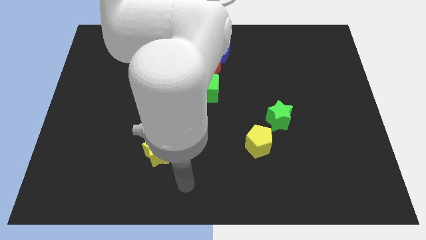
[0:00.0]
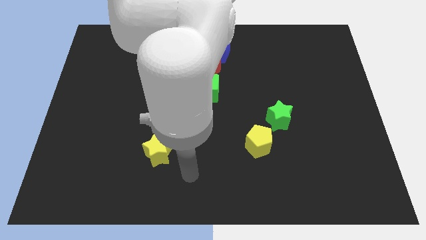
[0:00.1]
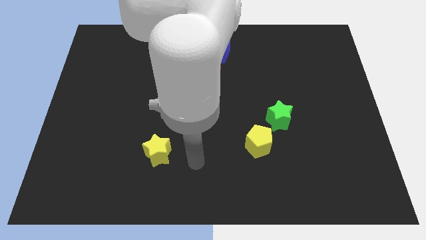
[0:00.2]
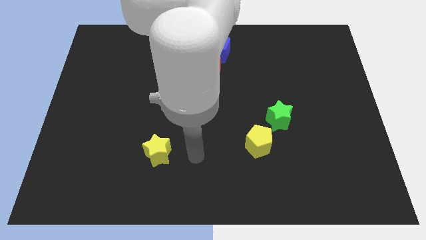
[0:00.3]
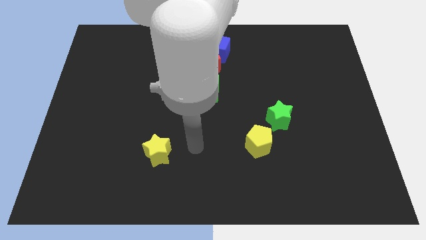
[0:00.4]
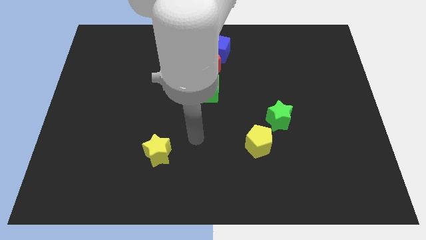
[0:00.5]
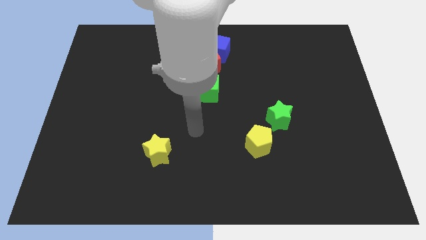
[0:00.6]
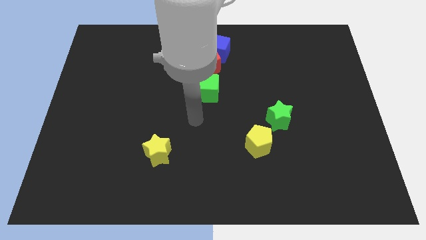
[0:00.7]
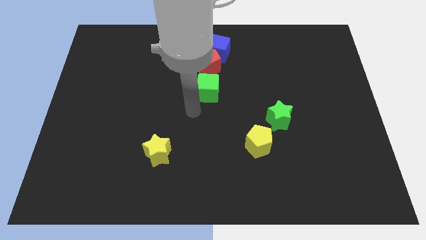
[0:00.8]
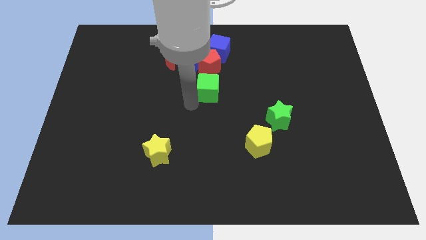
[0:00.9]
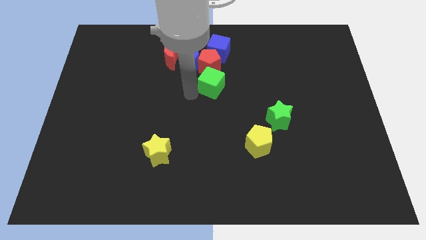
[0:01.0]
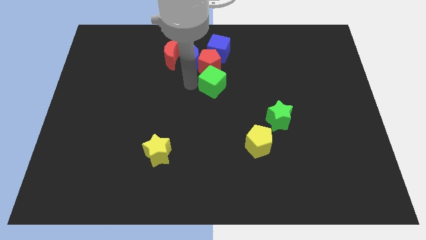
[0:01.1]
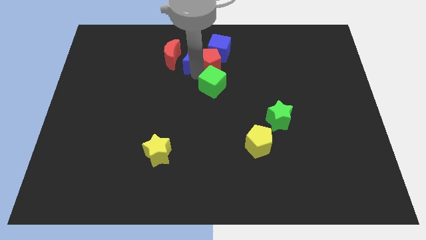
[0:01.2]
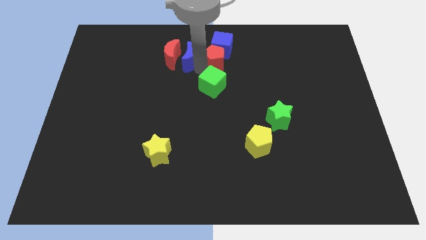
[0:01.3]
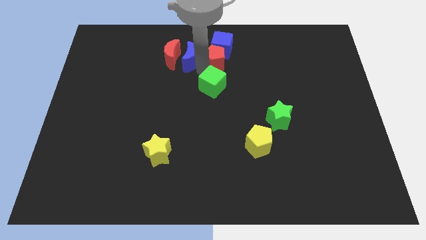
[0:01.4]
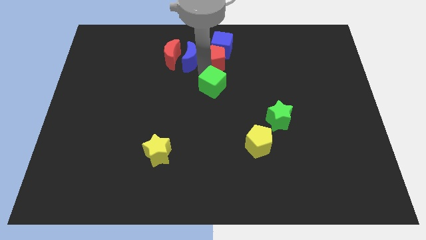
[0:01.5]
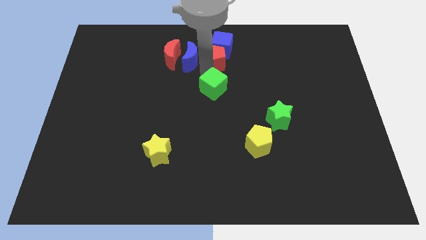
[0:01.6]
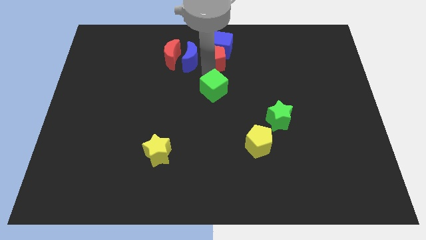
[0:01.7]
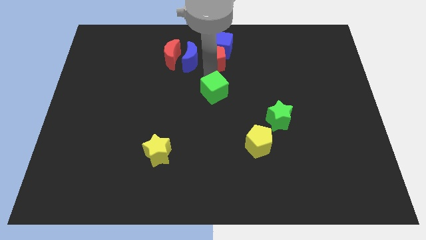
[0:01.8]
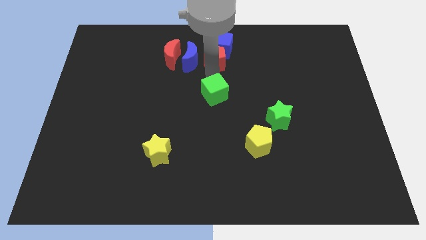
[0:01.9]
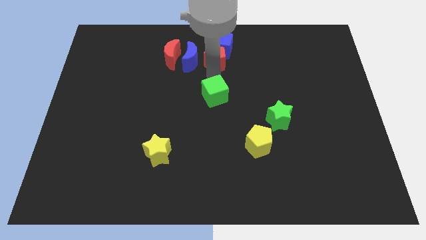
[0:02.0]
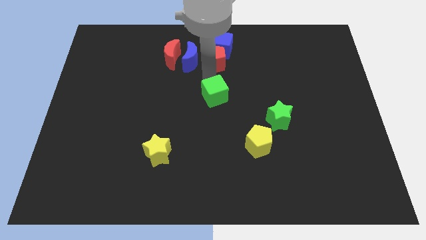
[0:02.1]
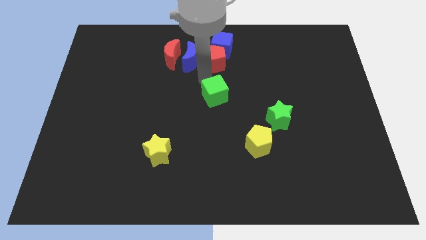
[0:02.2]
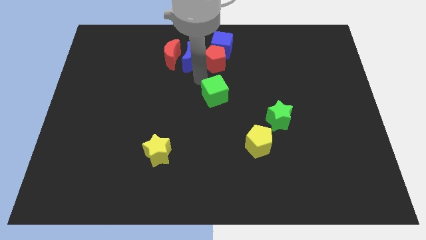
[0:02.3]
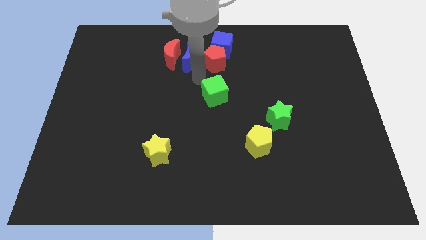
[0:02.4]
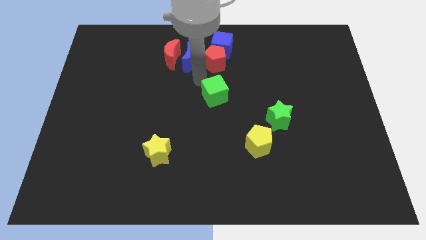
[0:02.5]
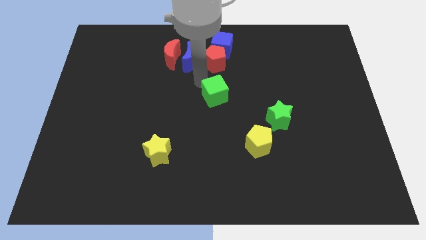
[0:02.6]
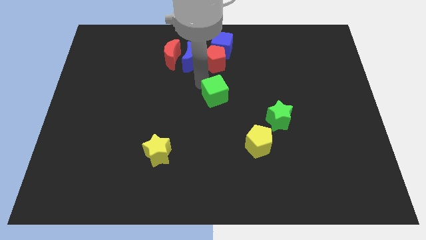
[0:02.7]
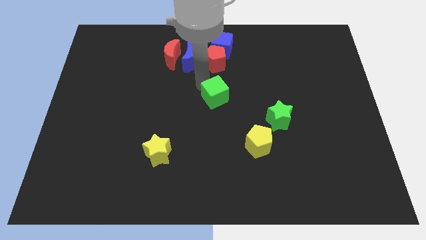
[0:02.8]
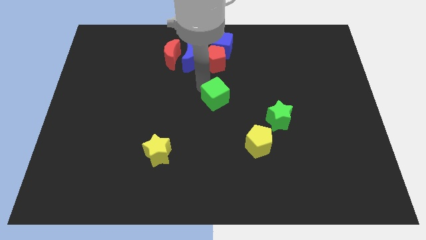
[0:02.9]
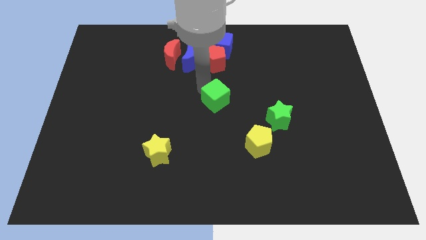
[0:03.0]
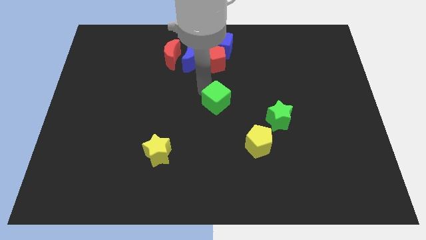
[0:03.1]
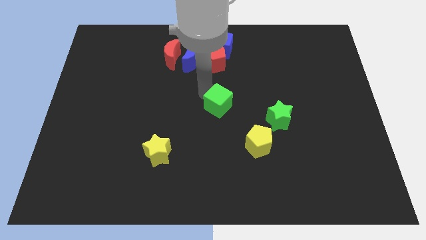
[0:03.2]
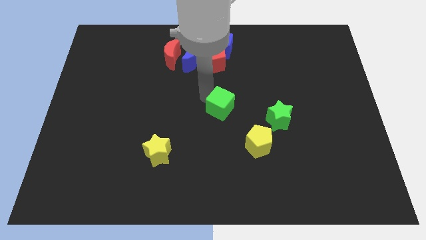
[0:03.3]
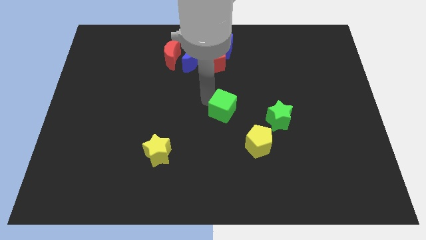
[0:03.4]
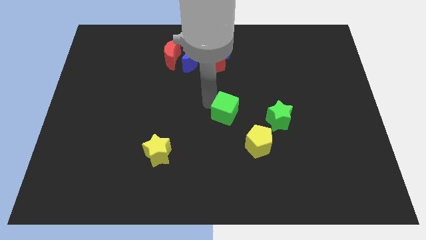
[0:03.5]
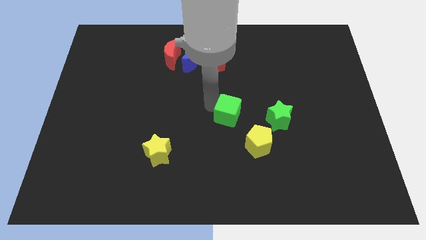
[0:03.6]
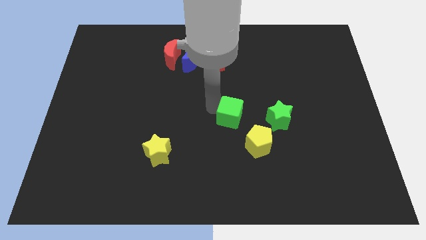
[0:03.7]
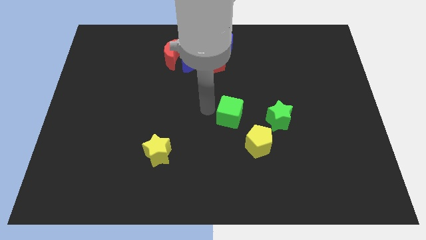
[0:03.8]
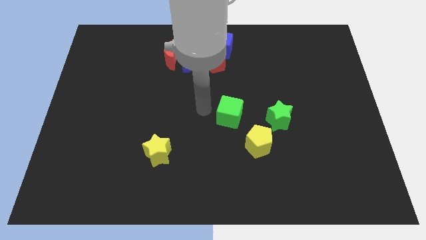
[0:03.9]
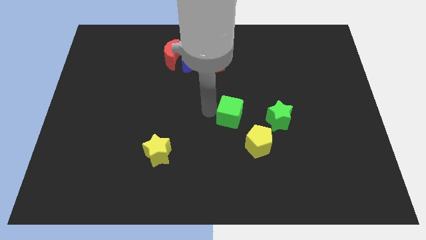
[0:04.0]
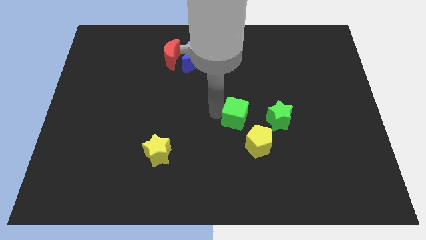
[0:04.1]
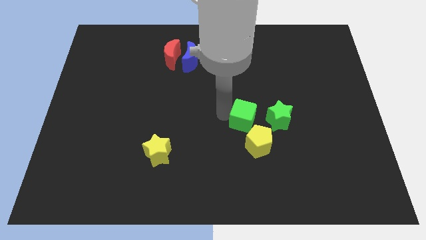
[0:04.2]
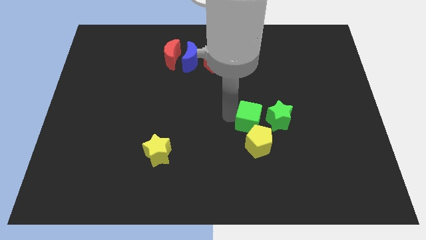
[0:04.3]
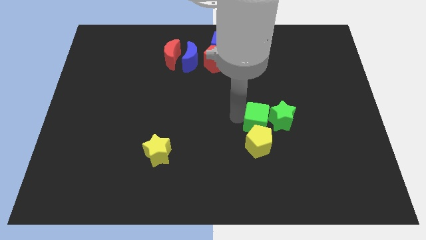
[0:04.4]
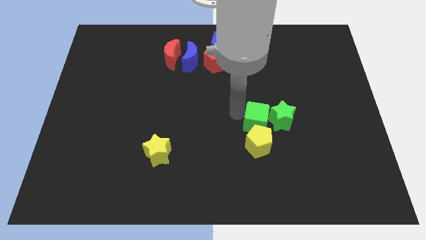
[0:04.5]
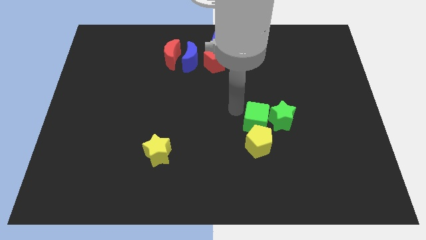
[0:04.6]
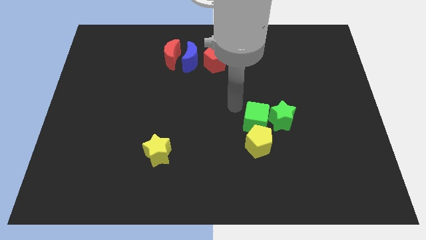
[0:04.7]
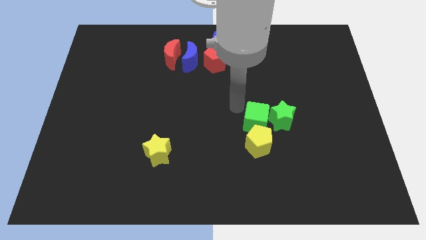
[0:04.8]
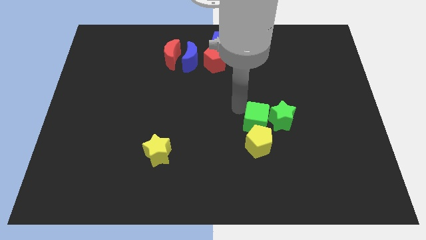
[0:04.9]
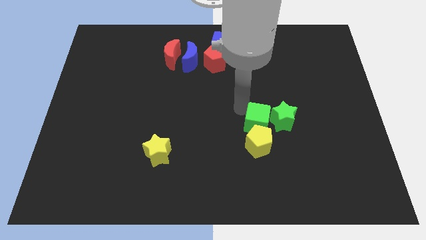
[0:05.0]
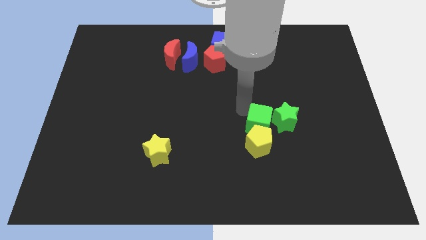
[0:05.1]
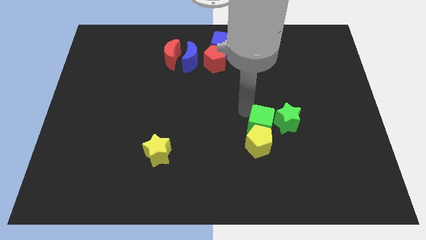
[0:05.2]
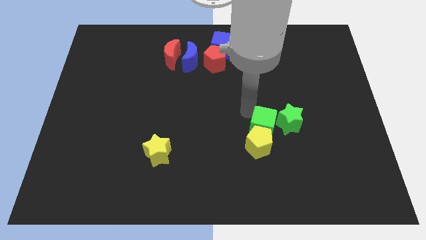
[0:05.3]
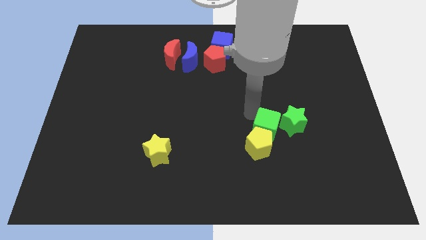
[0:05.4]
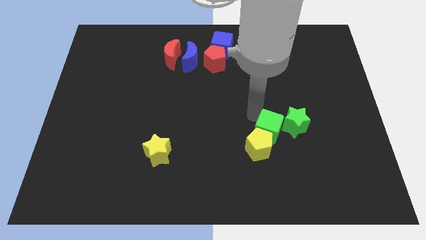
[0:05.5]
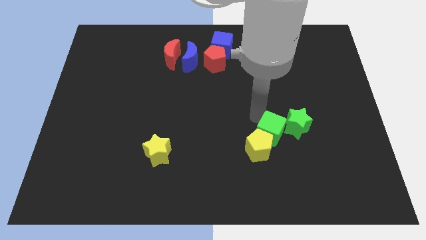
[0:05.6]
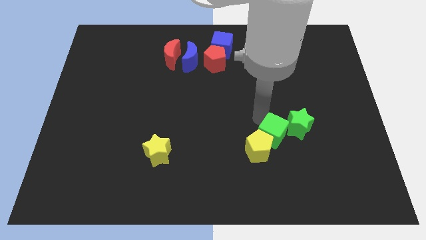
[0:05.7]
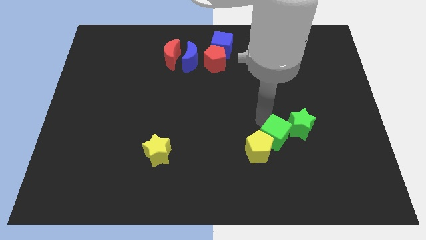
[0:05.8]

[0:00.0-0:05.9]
slide the green cube downwards and to the right diagonally

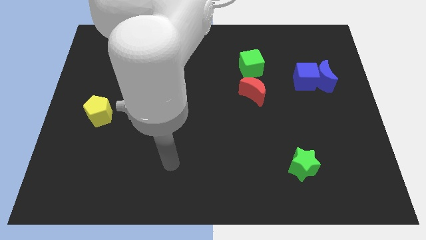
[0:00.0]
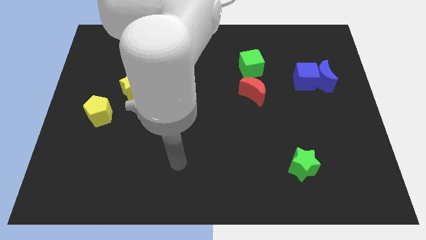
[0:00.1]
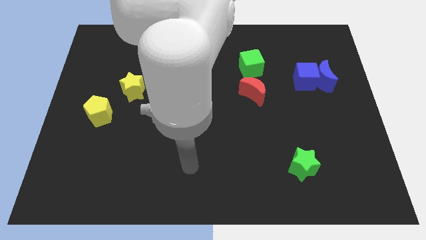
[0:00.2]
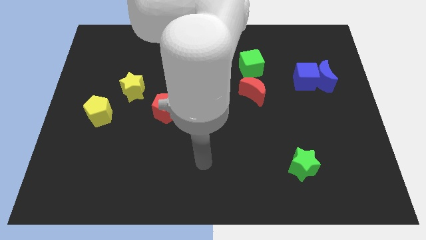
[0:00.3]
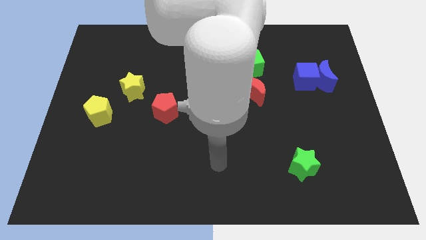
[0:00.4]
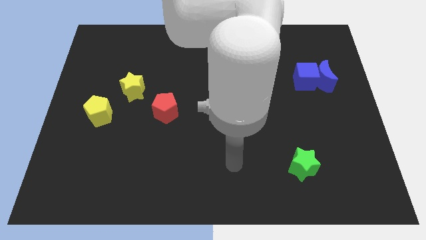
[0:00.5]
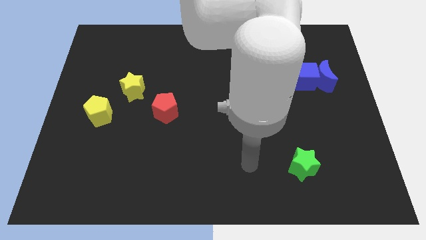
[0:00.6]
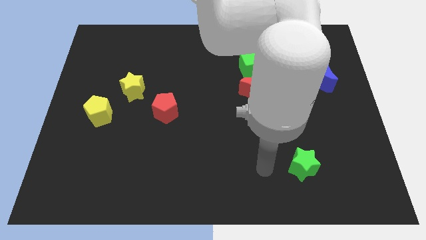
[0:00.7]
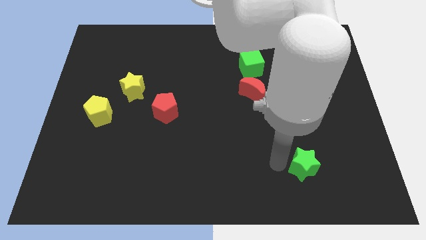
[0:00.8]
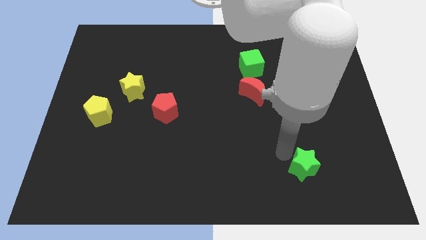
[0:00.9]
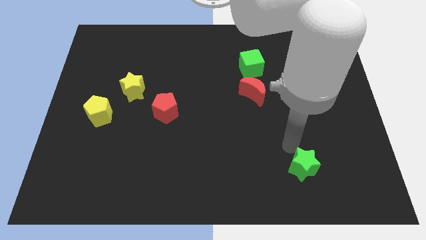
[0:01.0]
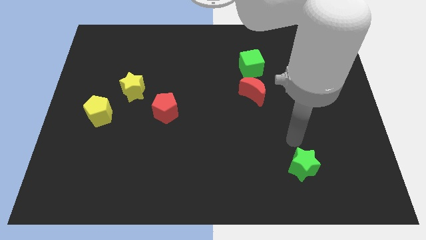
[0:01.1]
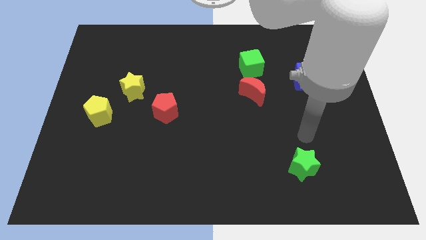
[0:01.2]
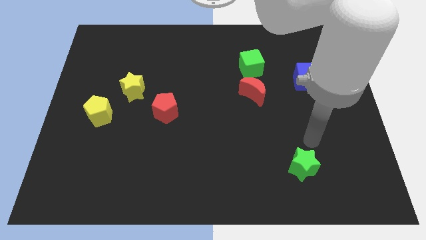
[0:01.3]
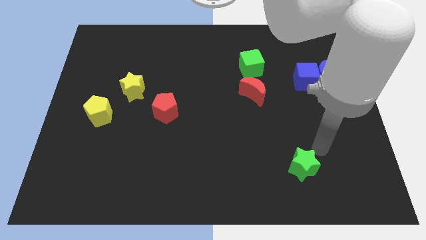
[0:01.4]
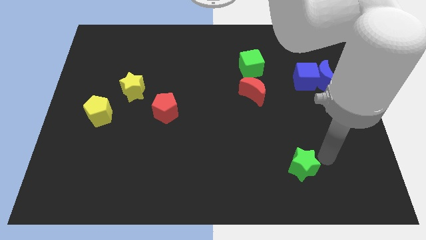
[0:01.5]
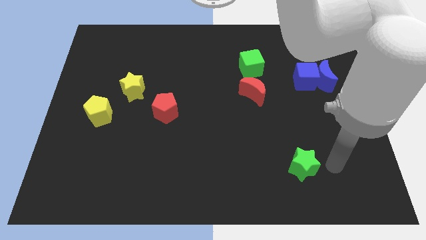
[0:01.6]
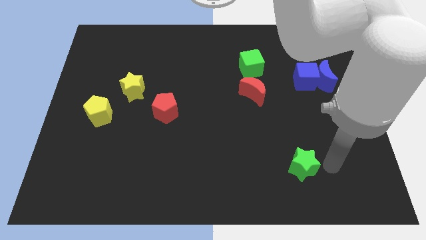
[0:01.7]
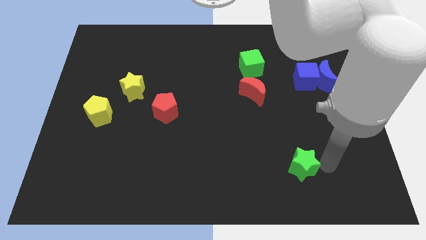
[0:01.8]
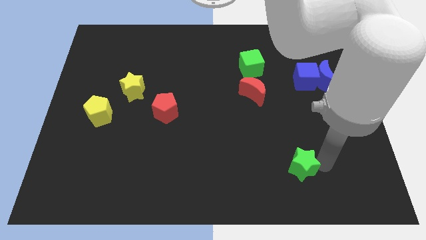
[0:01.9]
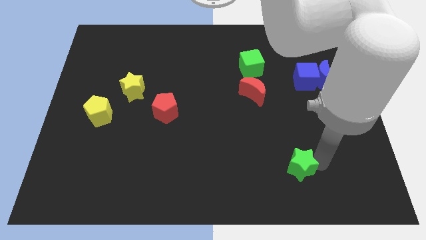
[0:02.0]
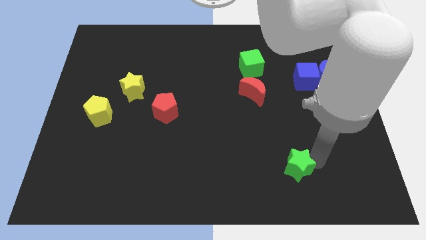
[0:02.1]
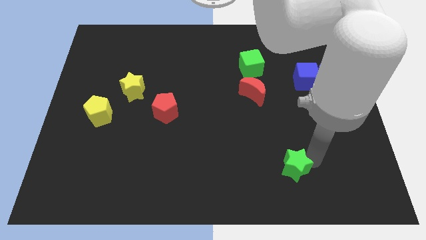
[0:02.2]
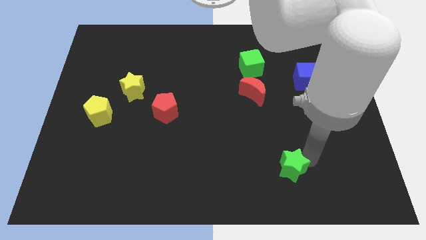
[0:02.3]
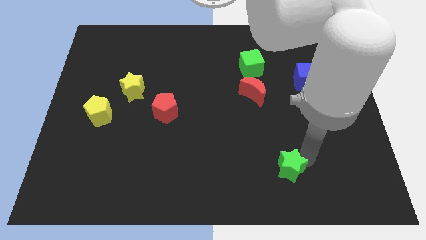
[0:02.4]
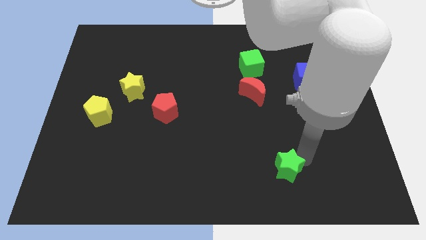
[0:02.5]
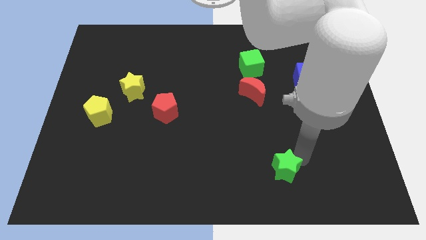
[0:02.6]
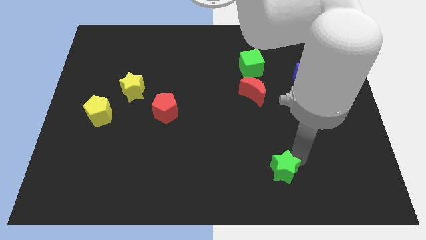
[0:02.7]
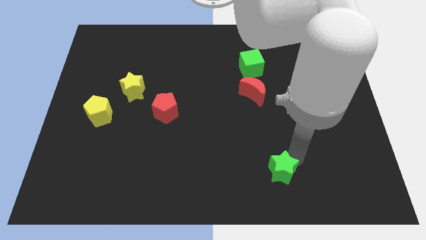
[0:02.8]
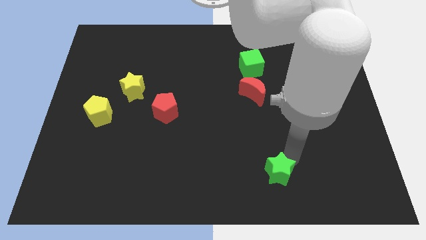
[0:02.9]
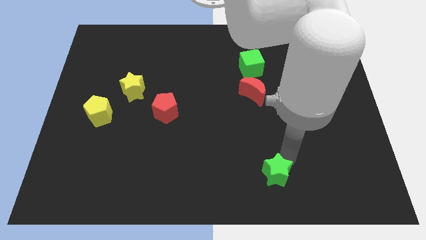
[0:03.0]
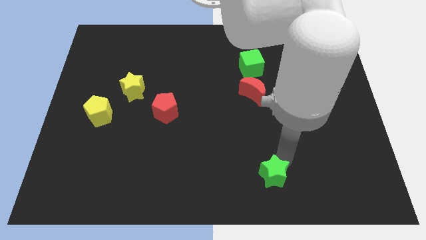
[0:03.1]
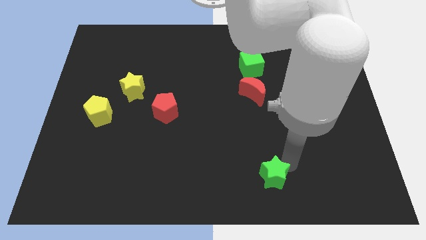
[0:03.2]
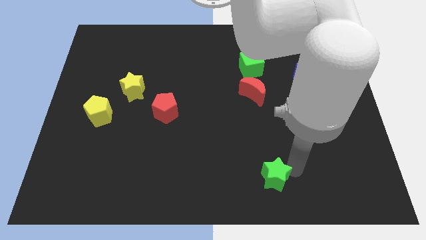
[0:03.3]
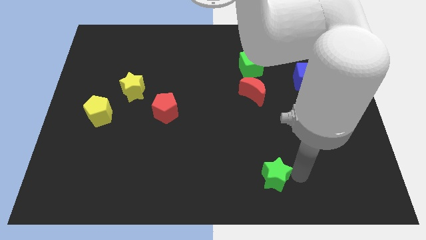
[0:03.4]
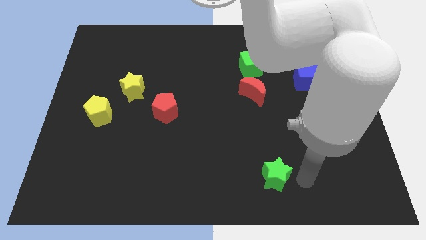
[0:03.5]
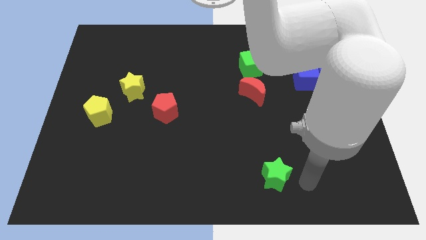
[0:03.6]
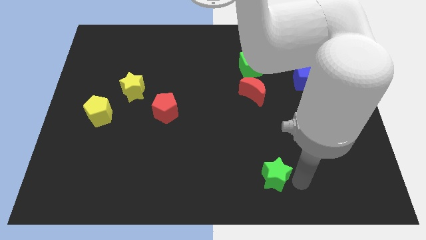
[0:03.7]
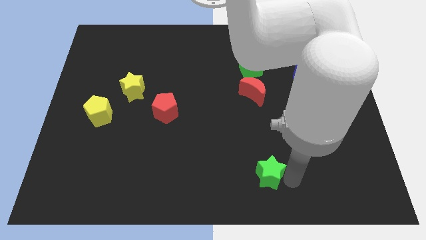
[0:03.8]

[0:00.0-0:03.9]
slide the green star to the left somewhat
